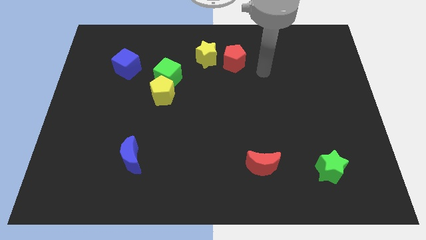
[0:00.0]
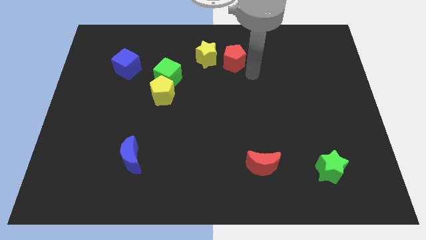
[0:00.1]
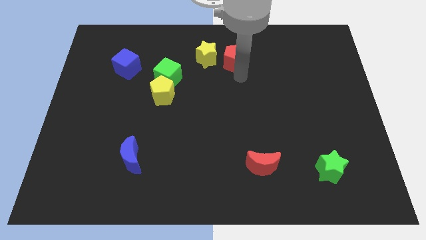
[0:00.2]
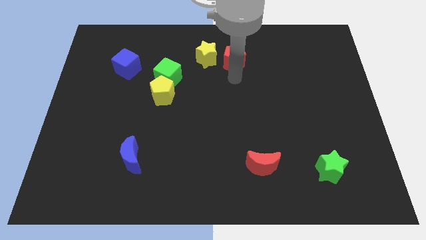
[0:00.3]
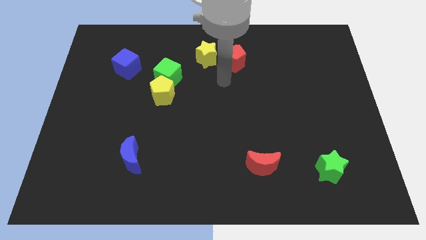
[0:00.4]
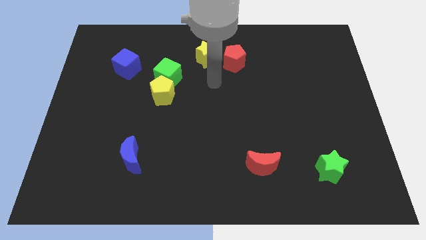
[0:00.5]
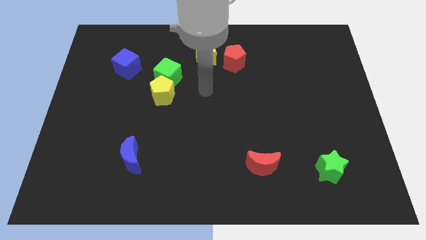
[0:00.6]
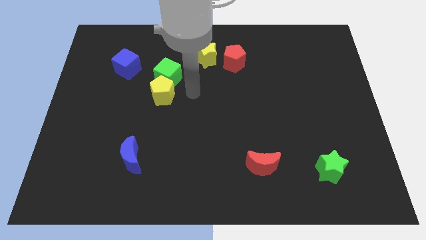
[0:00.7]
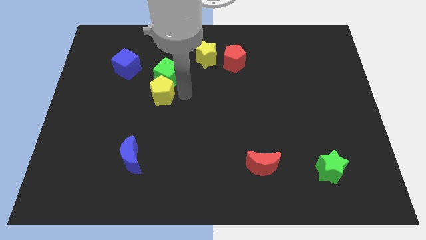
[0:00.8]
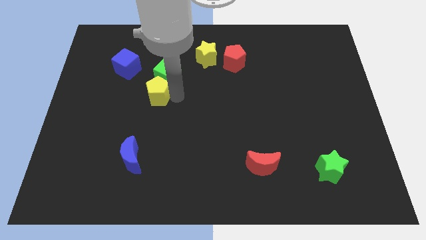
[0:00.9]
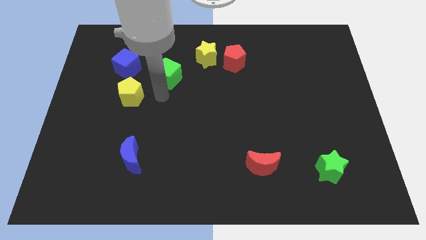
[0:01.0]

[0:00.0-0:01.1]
separate the green cube from the yellow pentagon

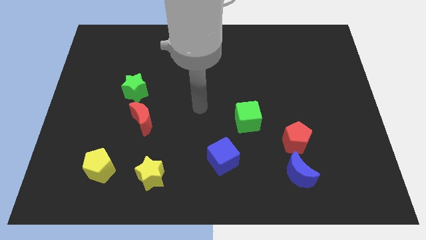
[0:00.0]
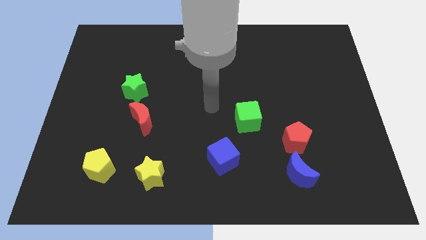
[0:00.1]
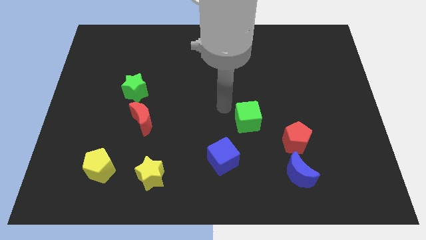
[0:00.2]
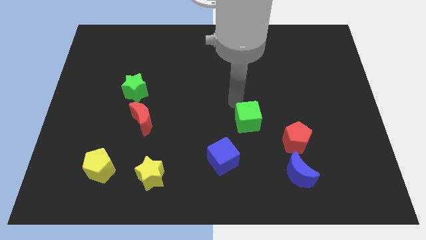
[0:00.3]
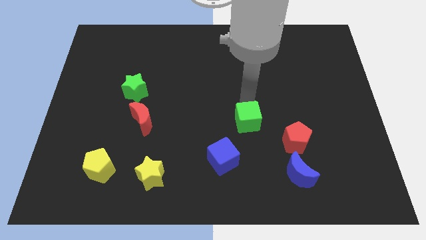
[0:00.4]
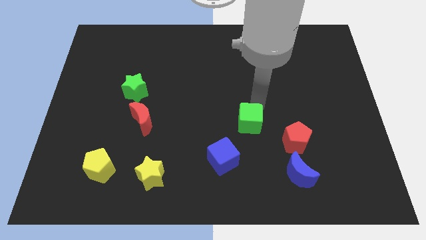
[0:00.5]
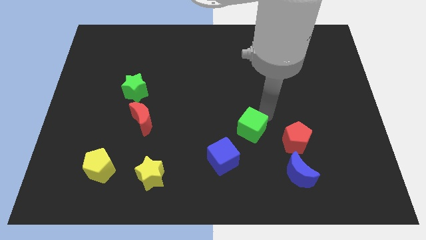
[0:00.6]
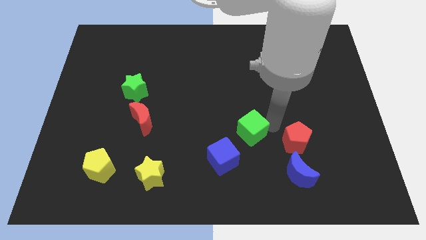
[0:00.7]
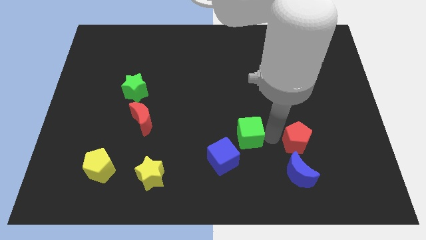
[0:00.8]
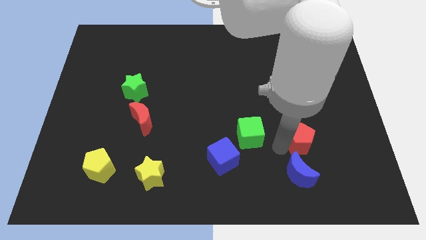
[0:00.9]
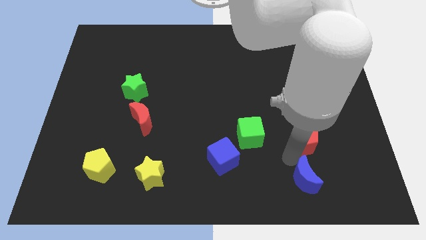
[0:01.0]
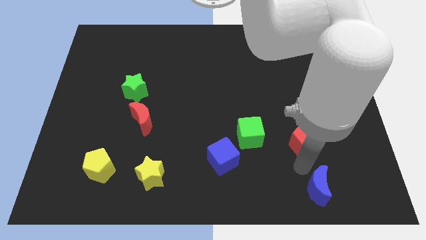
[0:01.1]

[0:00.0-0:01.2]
move the red pentagon away from the blue moon

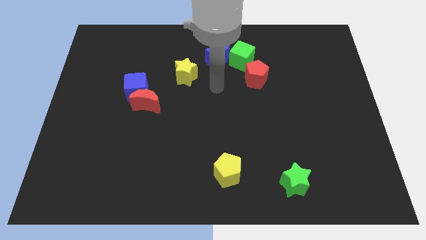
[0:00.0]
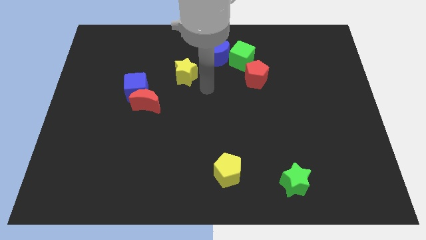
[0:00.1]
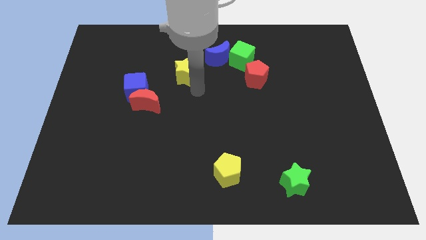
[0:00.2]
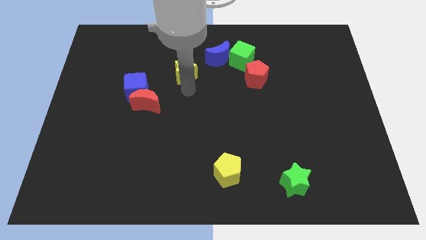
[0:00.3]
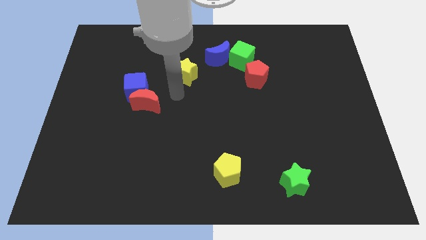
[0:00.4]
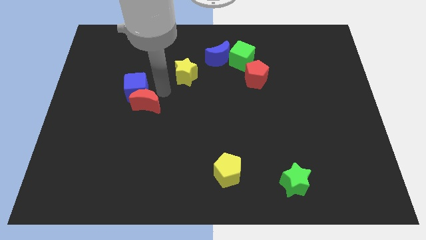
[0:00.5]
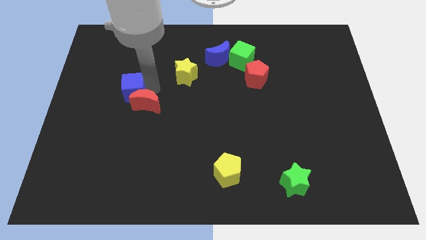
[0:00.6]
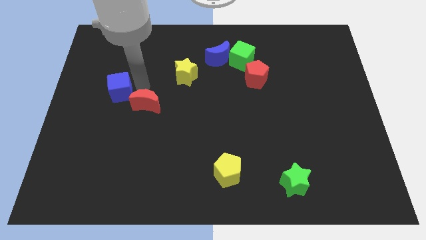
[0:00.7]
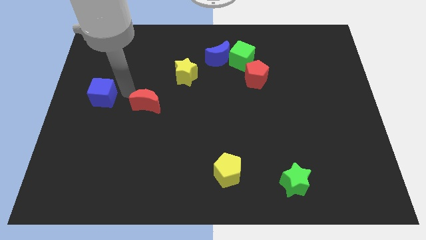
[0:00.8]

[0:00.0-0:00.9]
pull the red moon apart from the blue cube

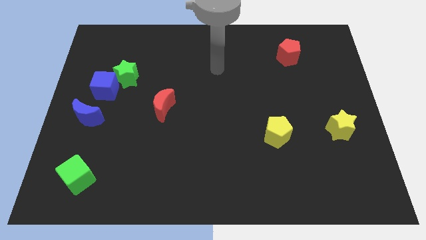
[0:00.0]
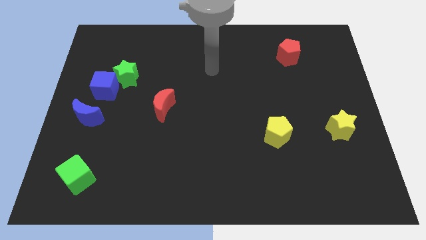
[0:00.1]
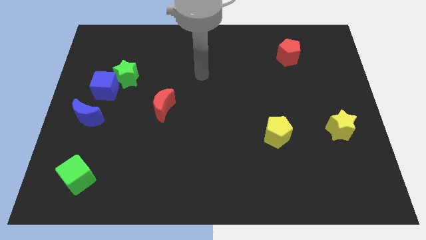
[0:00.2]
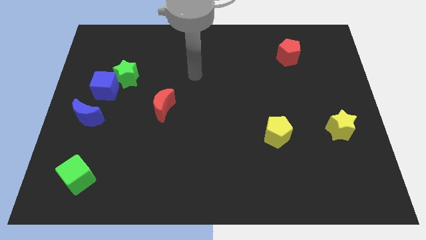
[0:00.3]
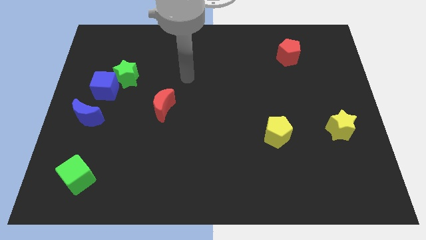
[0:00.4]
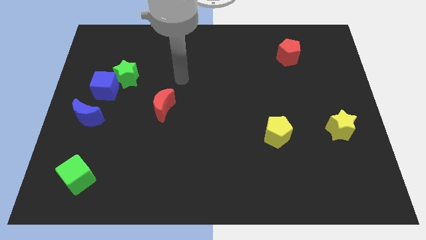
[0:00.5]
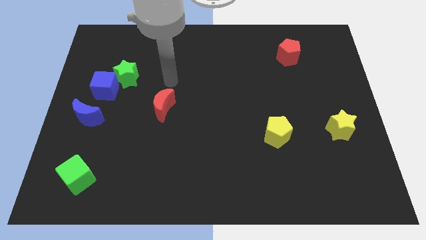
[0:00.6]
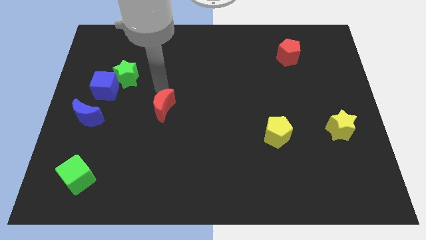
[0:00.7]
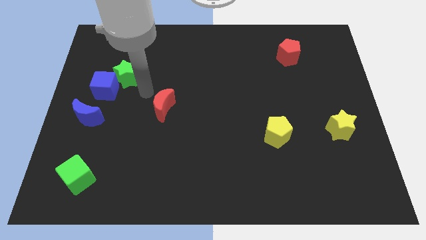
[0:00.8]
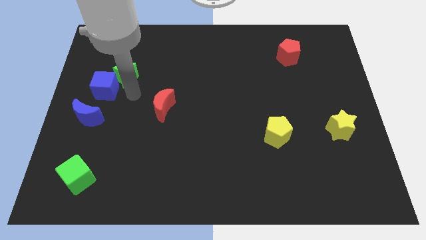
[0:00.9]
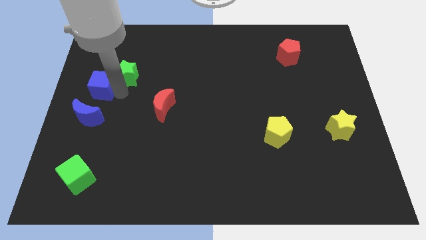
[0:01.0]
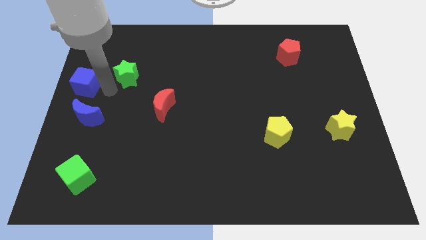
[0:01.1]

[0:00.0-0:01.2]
separate the green star from the blue cube

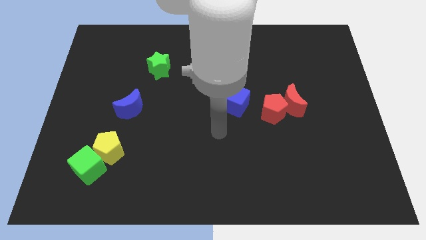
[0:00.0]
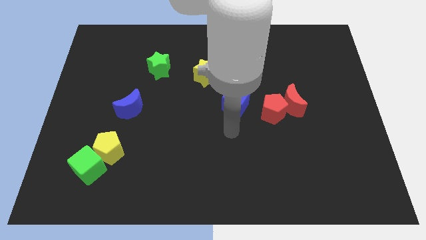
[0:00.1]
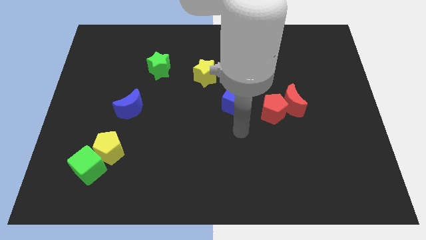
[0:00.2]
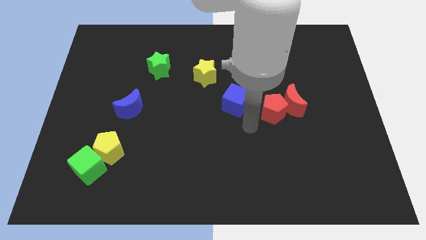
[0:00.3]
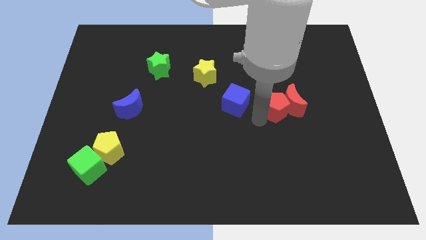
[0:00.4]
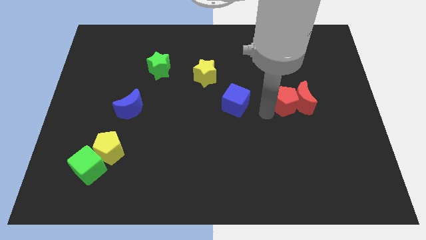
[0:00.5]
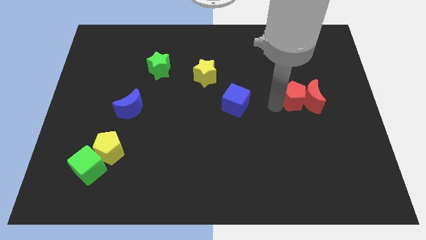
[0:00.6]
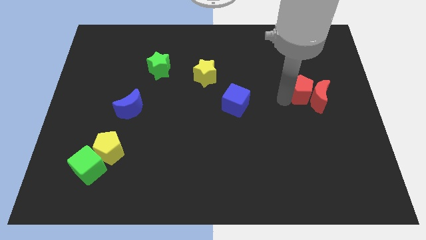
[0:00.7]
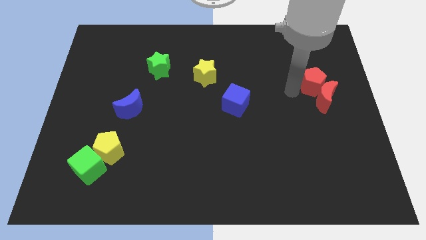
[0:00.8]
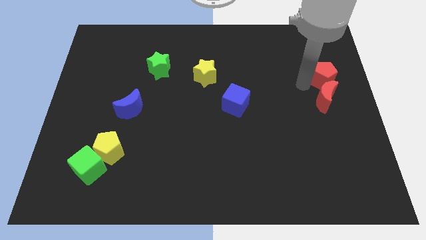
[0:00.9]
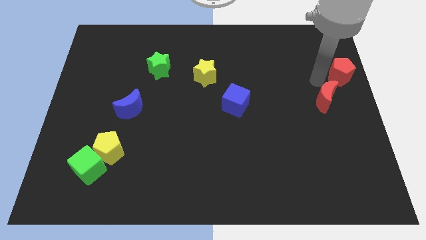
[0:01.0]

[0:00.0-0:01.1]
pull the red moon apart from the red pentagon

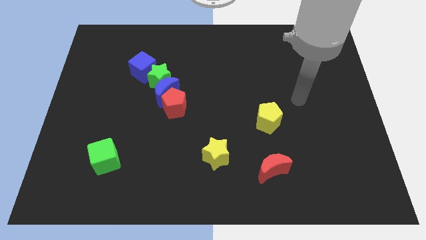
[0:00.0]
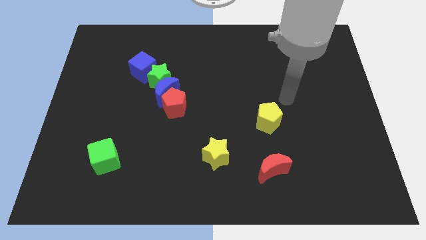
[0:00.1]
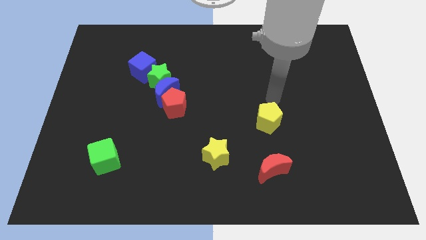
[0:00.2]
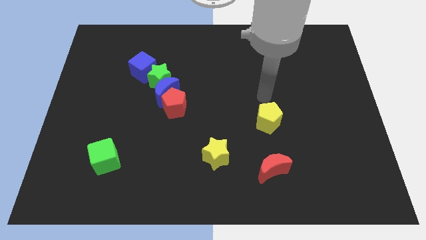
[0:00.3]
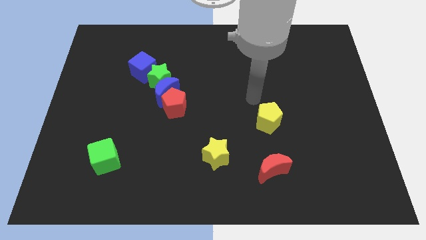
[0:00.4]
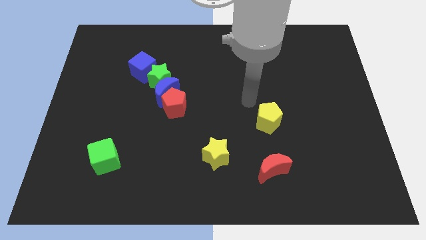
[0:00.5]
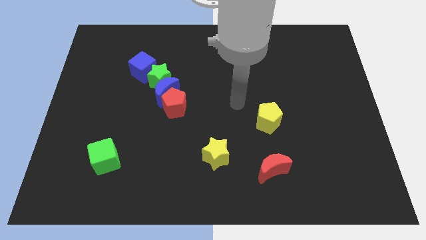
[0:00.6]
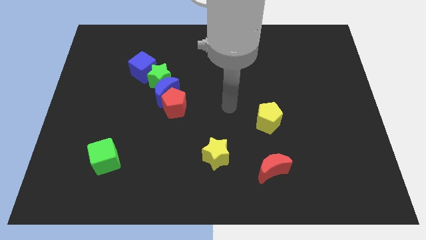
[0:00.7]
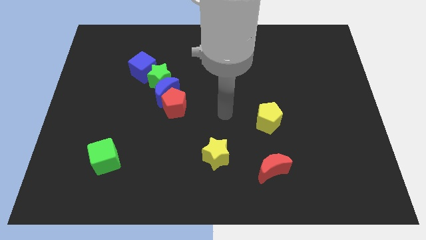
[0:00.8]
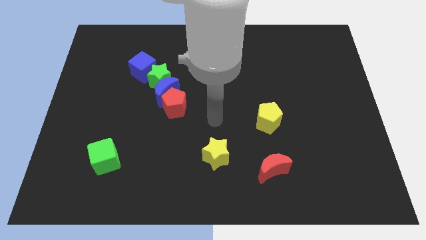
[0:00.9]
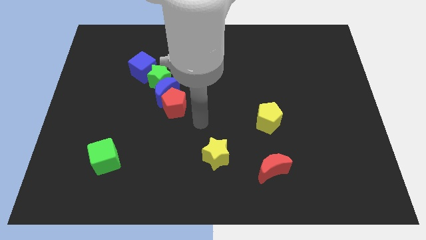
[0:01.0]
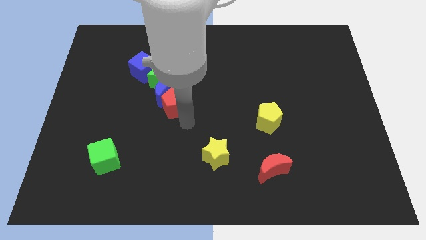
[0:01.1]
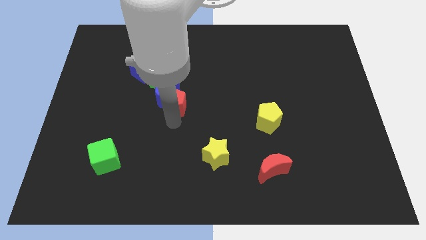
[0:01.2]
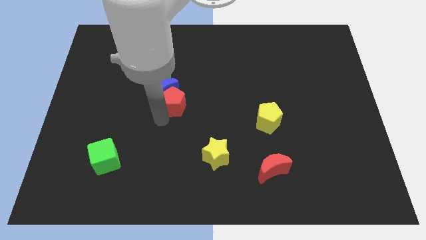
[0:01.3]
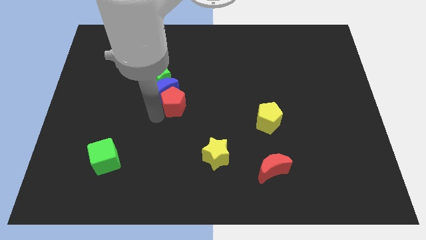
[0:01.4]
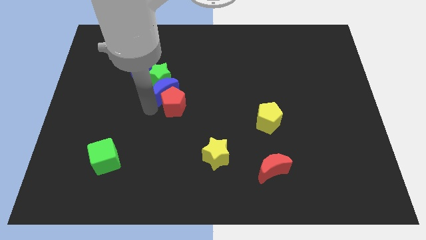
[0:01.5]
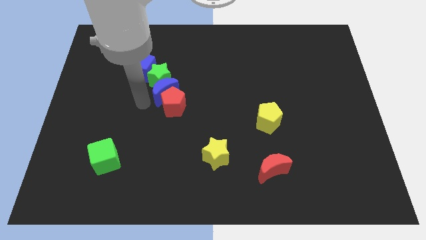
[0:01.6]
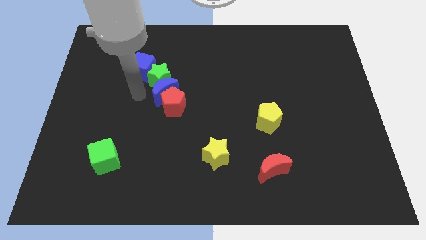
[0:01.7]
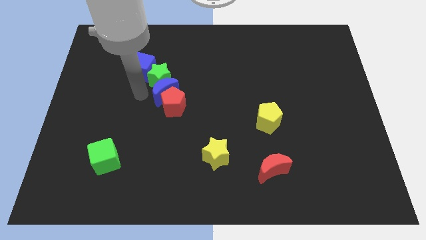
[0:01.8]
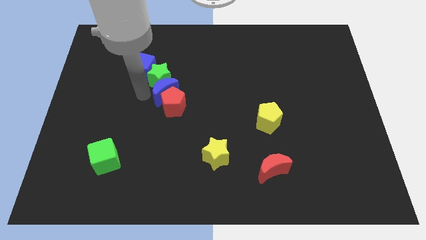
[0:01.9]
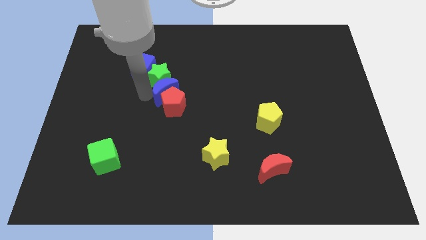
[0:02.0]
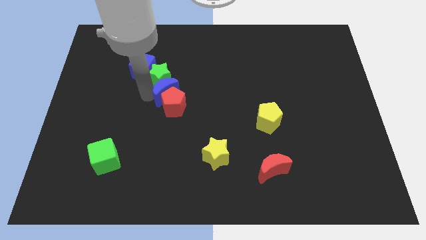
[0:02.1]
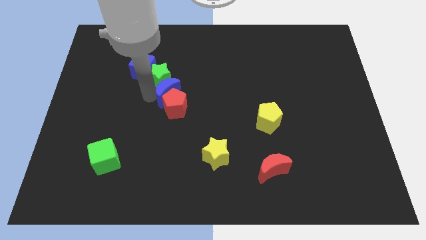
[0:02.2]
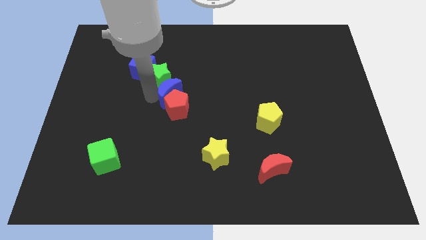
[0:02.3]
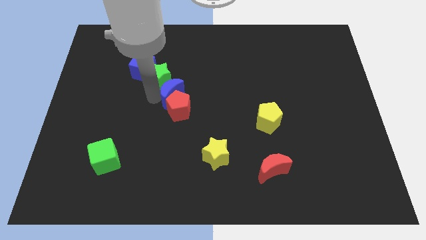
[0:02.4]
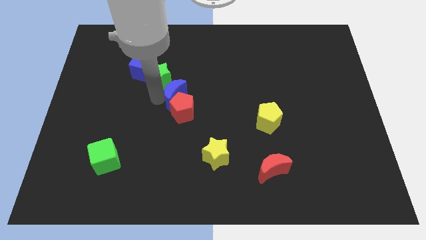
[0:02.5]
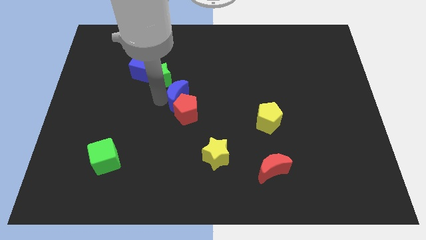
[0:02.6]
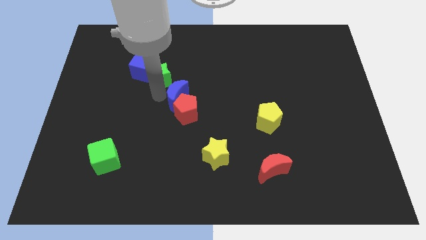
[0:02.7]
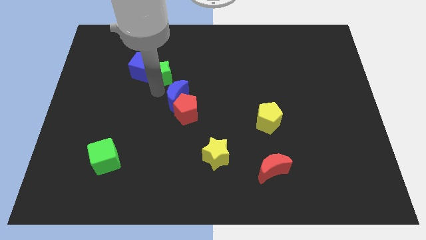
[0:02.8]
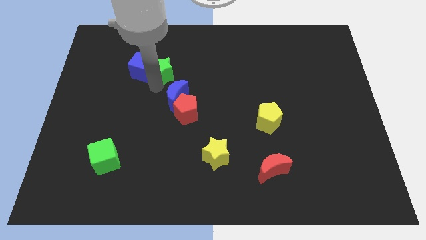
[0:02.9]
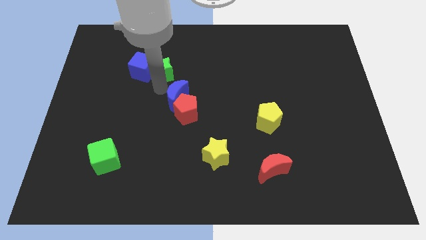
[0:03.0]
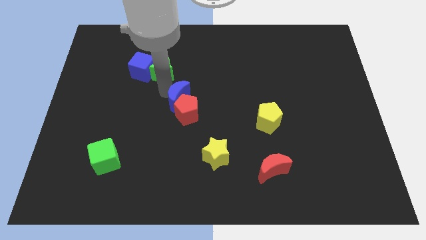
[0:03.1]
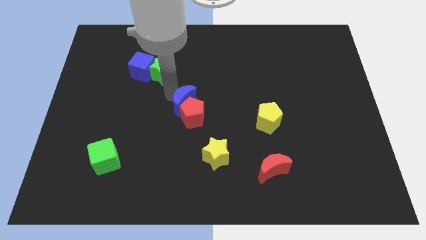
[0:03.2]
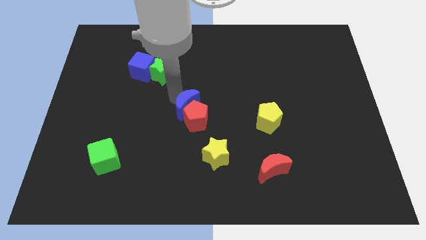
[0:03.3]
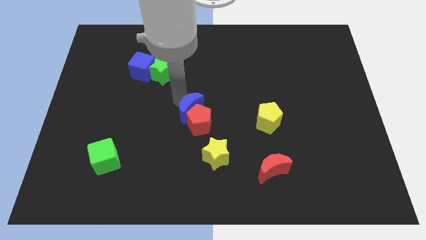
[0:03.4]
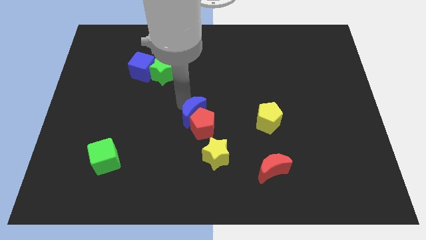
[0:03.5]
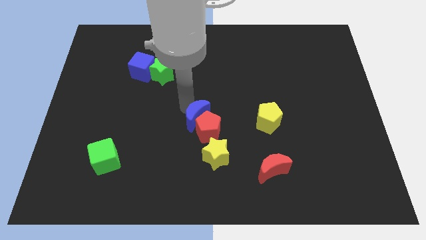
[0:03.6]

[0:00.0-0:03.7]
move the blue moon away from the red pentagon, green star, and blue cube

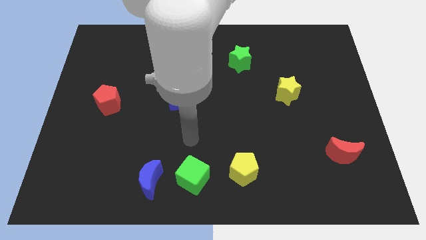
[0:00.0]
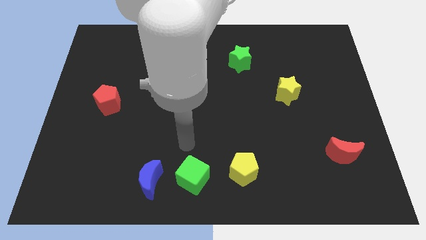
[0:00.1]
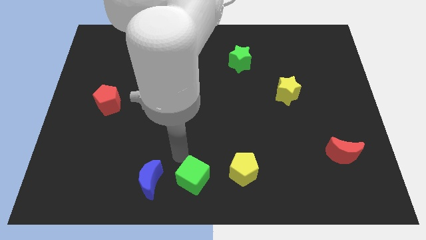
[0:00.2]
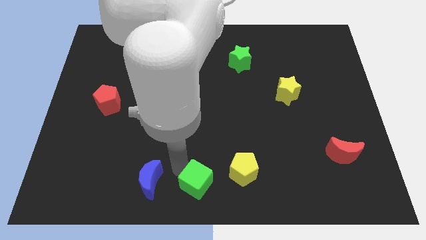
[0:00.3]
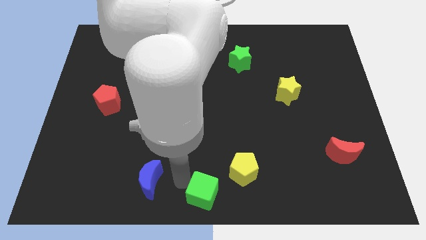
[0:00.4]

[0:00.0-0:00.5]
separate the blue moon from the green cube
